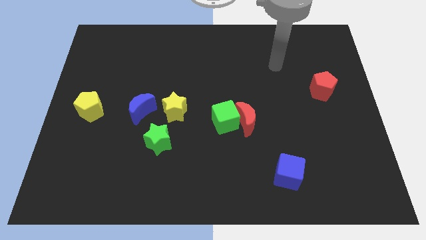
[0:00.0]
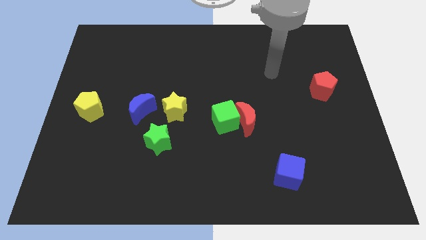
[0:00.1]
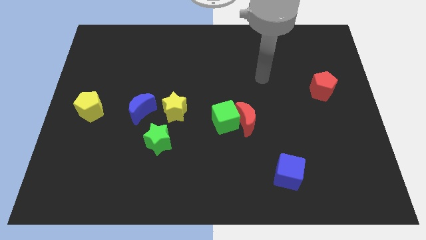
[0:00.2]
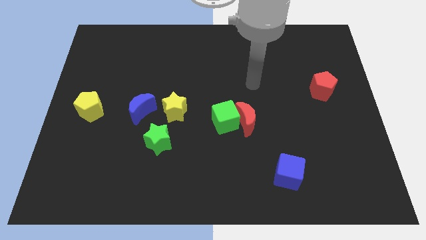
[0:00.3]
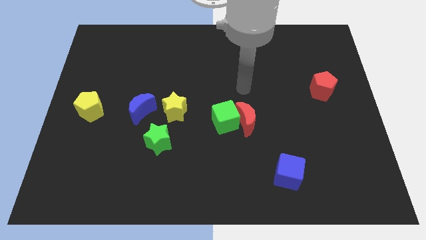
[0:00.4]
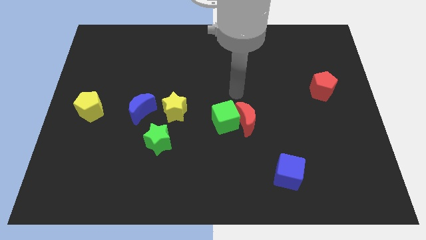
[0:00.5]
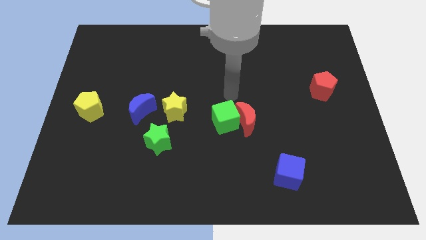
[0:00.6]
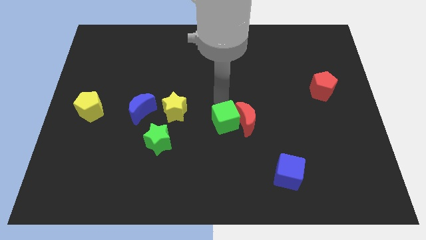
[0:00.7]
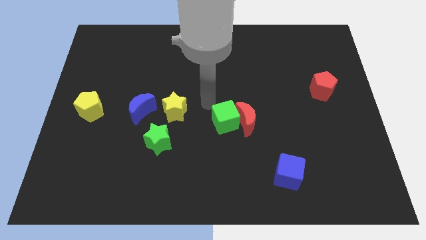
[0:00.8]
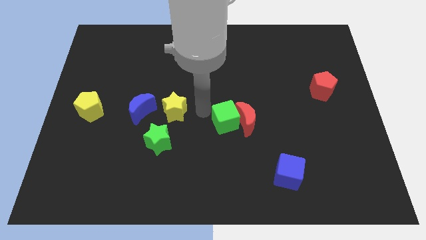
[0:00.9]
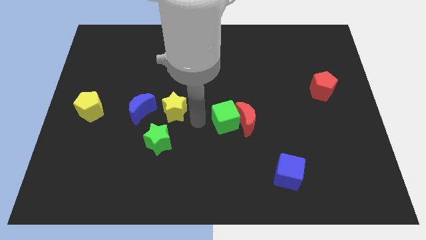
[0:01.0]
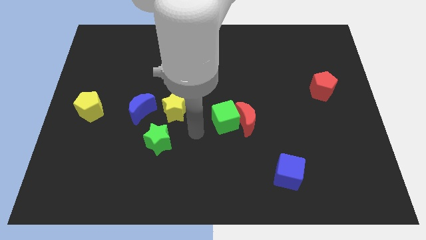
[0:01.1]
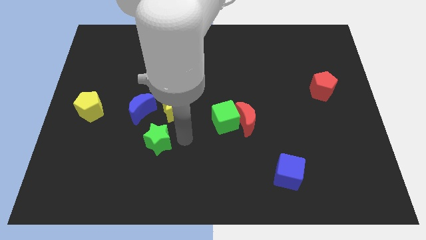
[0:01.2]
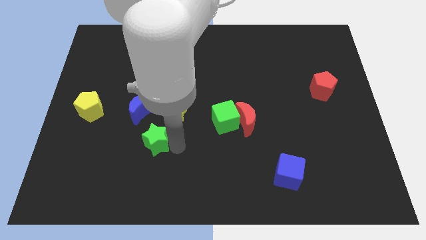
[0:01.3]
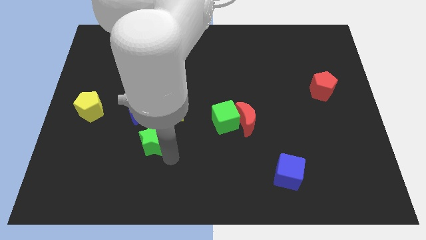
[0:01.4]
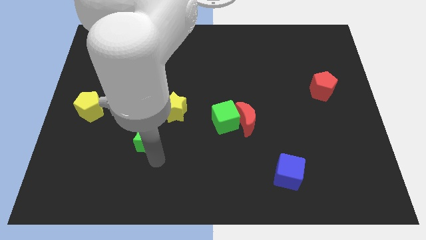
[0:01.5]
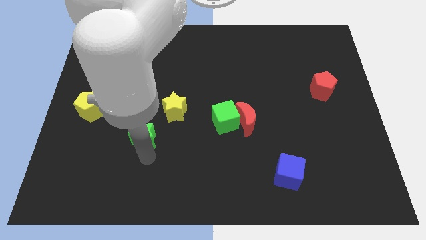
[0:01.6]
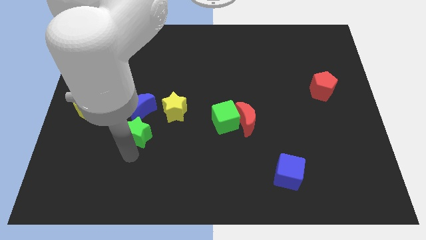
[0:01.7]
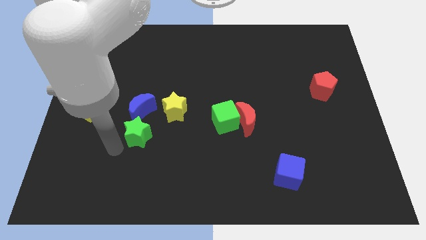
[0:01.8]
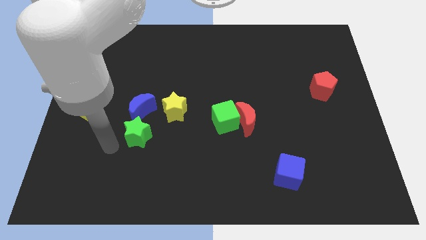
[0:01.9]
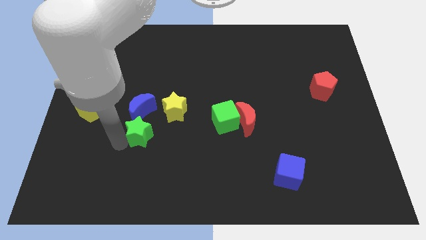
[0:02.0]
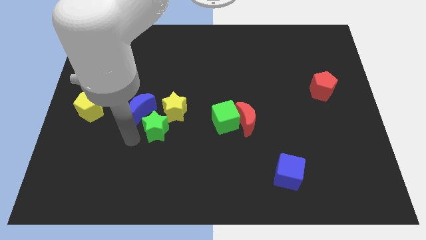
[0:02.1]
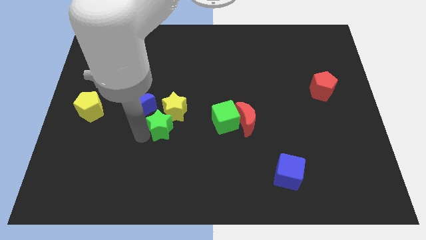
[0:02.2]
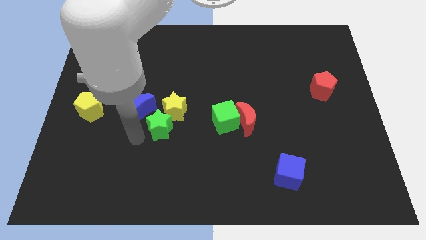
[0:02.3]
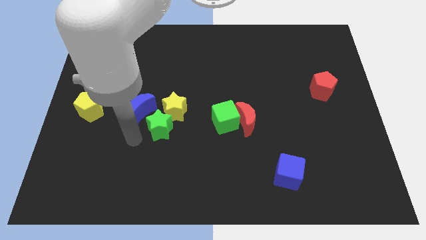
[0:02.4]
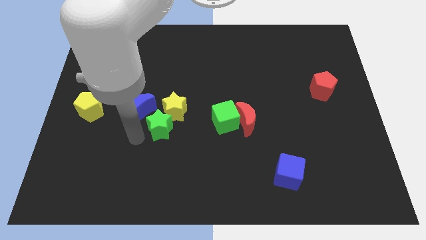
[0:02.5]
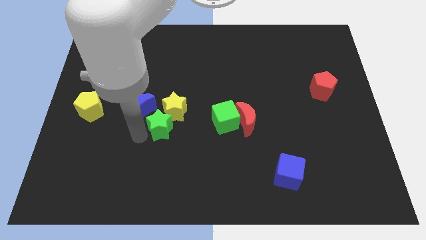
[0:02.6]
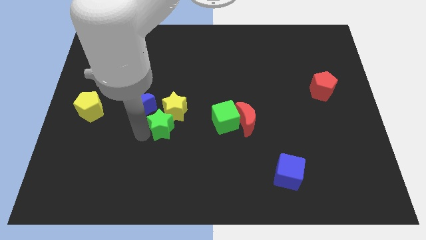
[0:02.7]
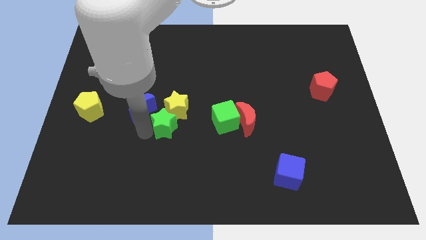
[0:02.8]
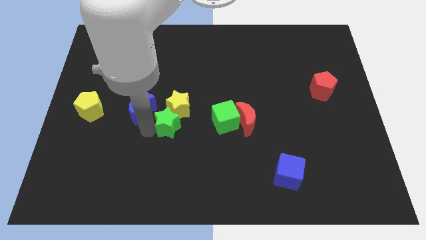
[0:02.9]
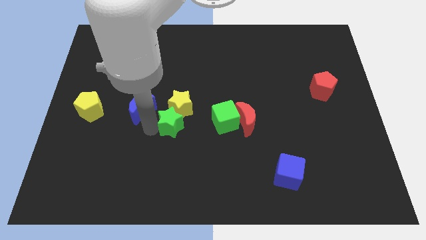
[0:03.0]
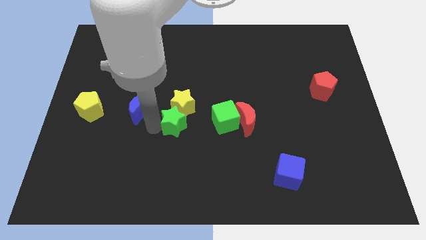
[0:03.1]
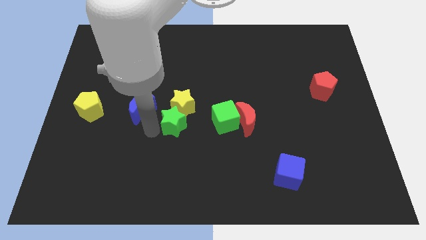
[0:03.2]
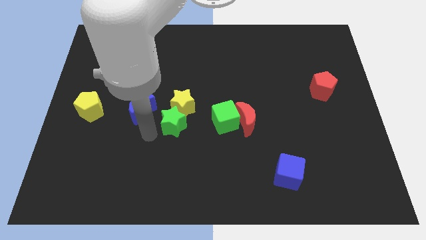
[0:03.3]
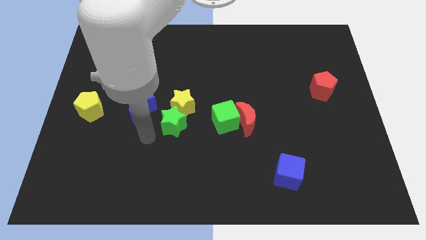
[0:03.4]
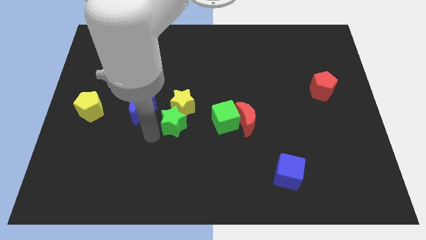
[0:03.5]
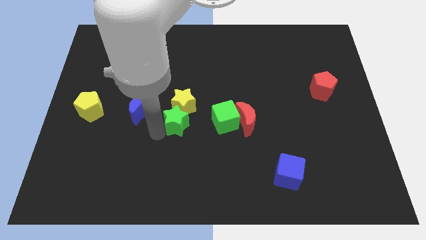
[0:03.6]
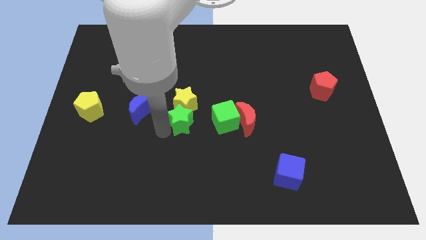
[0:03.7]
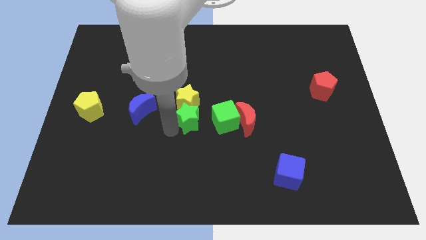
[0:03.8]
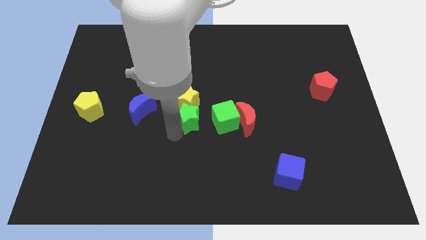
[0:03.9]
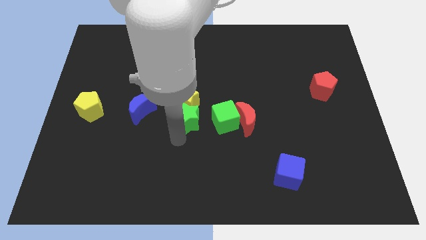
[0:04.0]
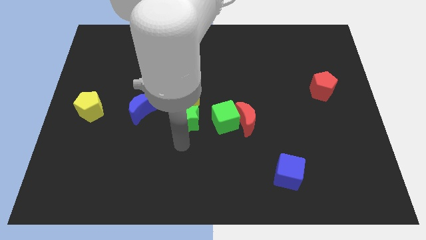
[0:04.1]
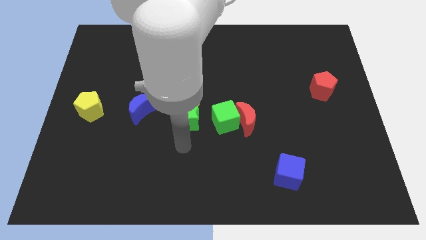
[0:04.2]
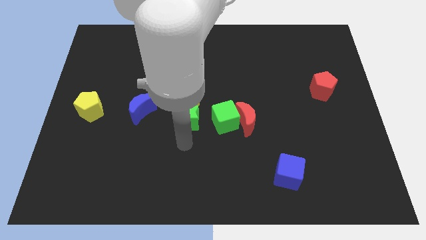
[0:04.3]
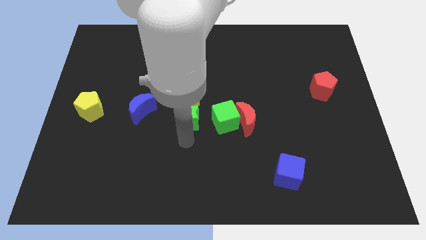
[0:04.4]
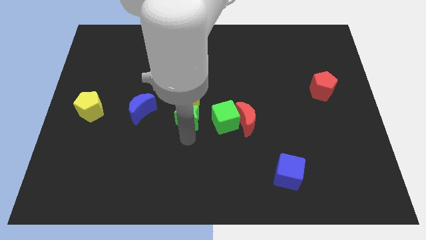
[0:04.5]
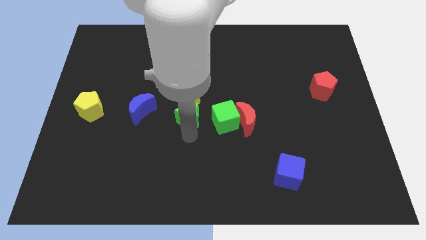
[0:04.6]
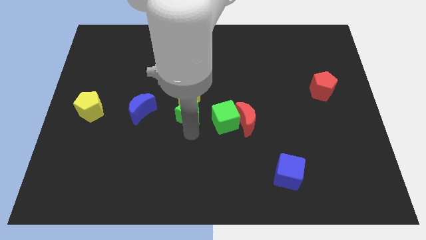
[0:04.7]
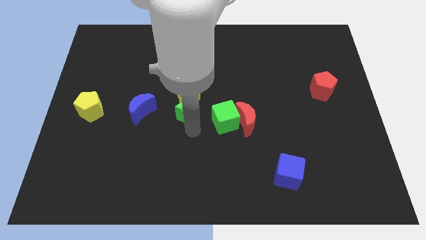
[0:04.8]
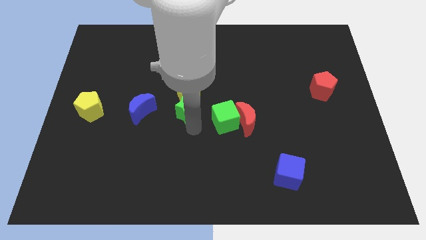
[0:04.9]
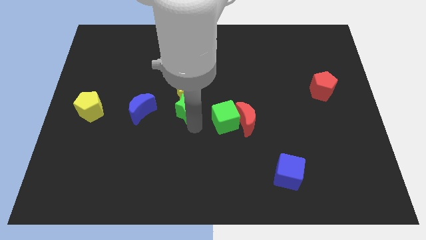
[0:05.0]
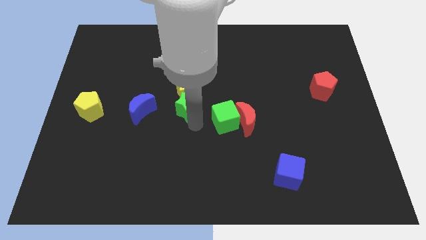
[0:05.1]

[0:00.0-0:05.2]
push the green star up a little

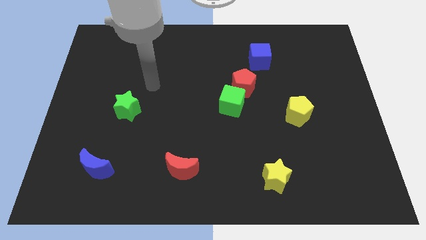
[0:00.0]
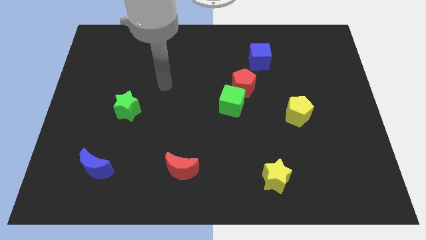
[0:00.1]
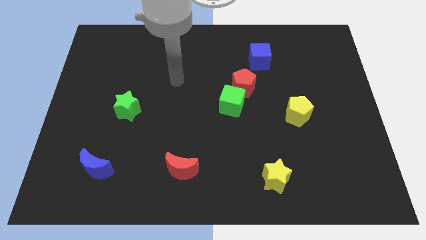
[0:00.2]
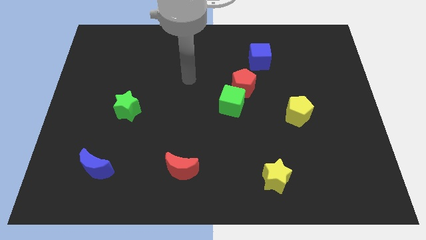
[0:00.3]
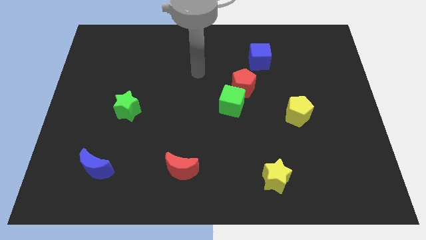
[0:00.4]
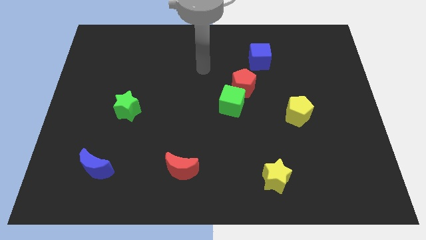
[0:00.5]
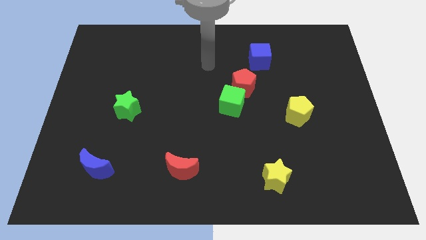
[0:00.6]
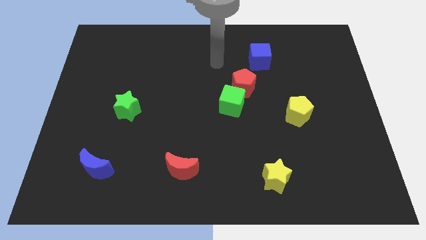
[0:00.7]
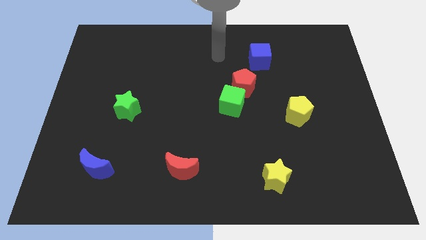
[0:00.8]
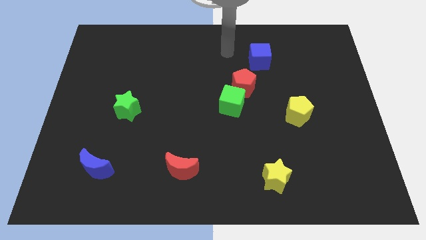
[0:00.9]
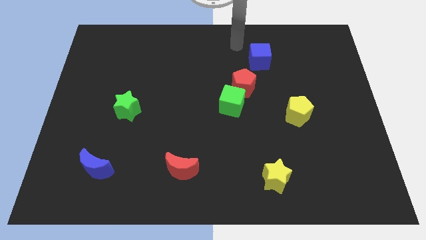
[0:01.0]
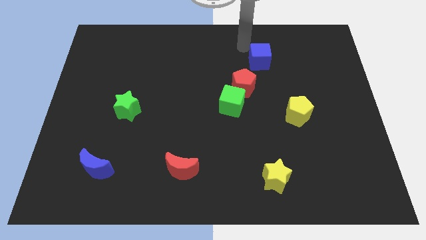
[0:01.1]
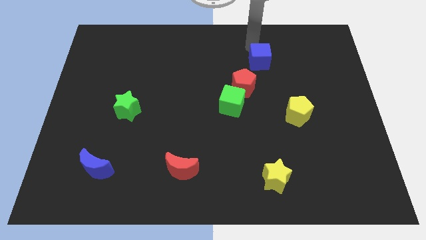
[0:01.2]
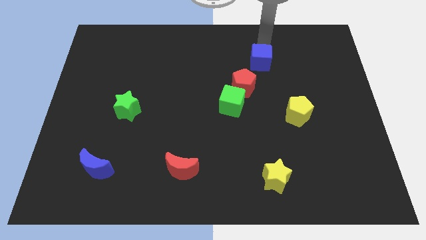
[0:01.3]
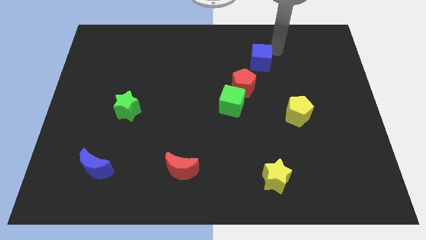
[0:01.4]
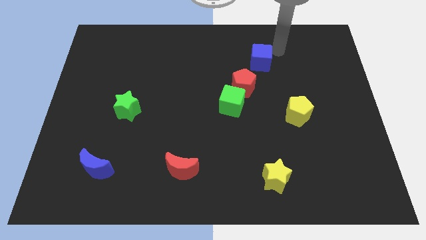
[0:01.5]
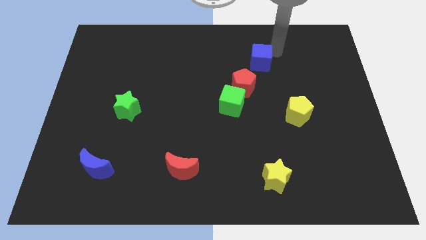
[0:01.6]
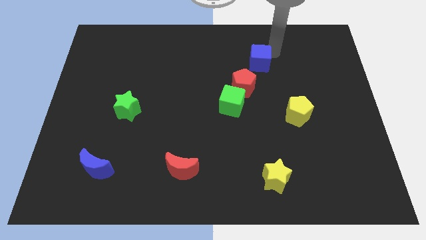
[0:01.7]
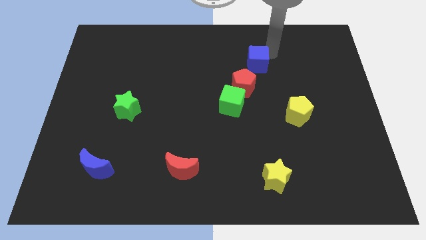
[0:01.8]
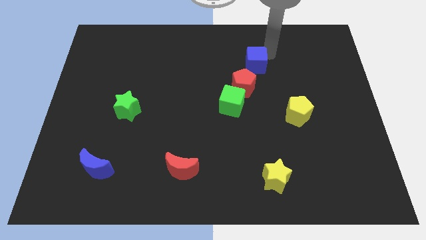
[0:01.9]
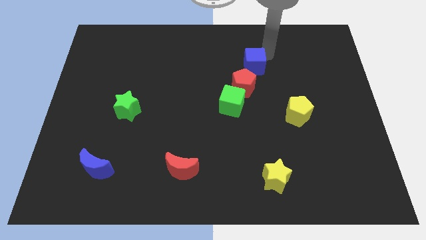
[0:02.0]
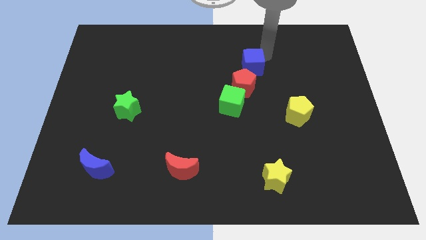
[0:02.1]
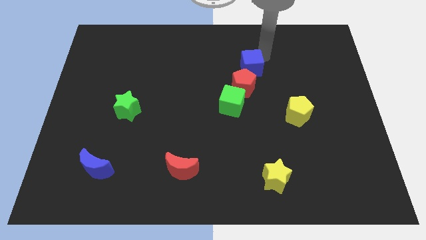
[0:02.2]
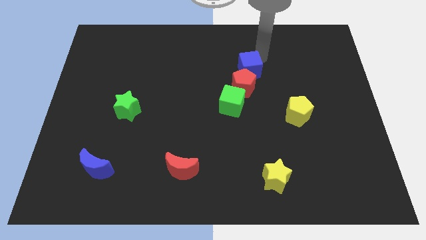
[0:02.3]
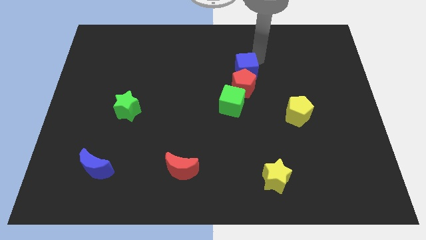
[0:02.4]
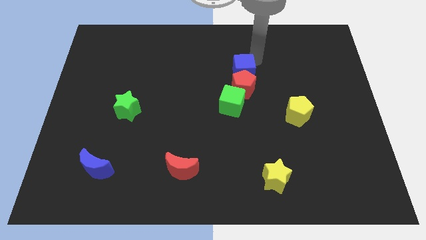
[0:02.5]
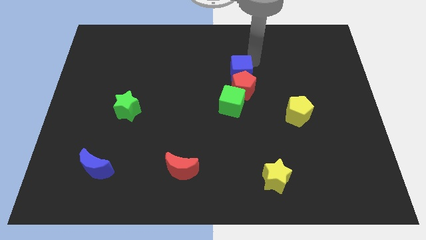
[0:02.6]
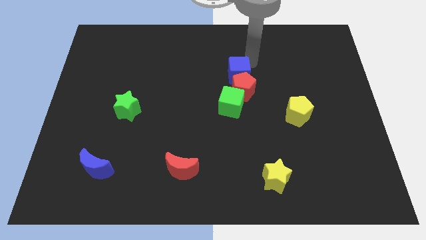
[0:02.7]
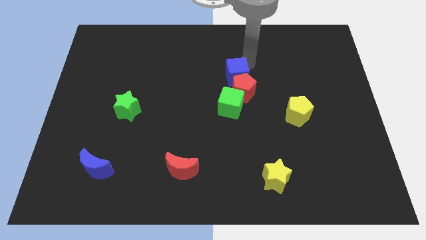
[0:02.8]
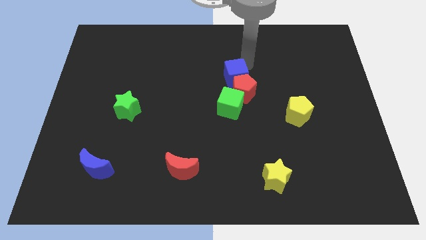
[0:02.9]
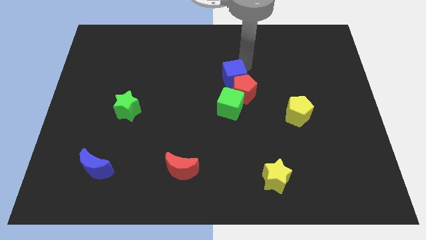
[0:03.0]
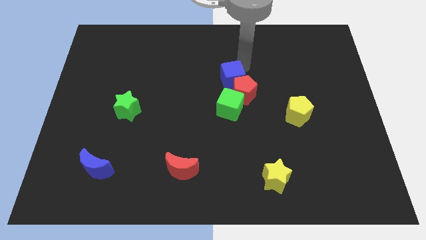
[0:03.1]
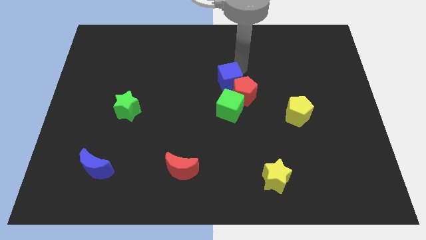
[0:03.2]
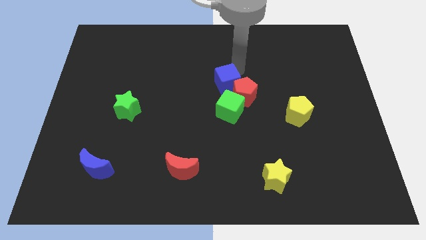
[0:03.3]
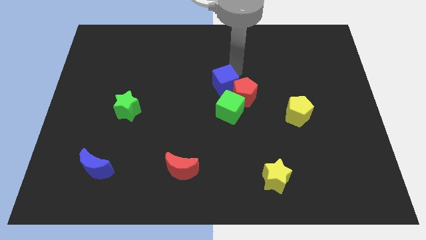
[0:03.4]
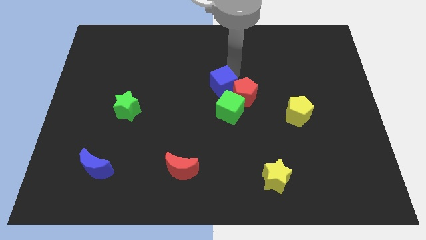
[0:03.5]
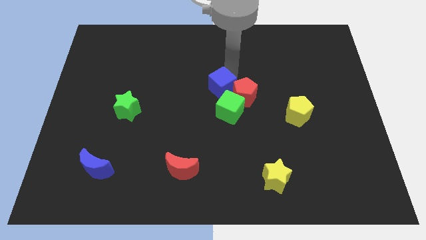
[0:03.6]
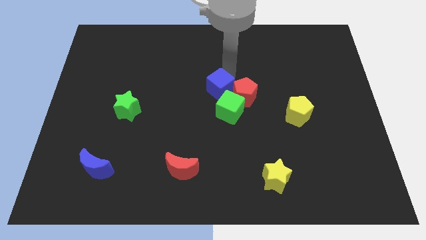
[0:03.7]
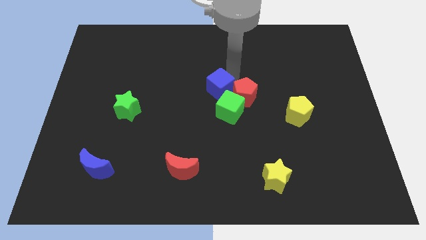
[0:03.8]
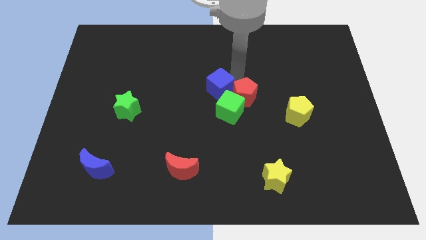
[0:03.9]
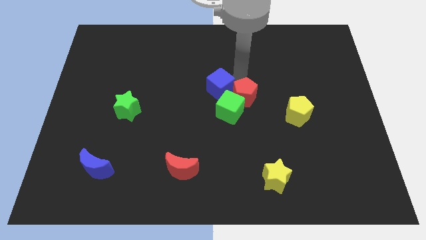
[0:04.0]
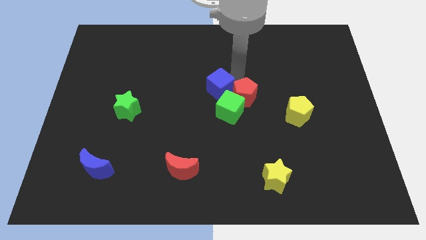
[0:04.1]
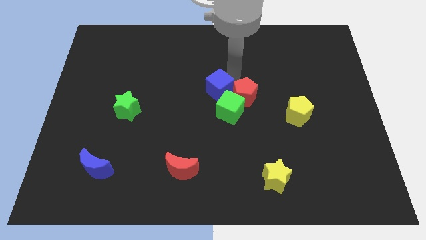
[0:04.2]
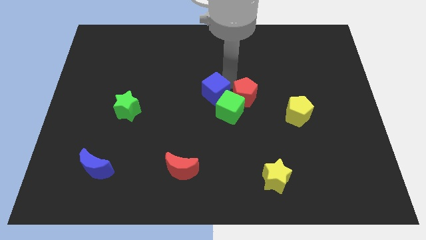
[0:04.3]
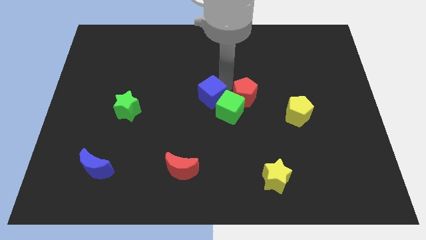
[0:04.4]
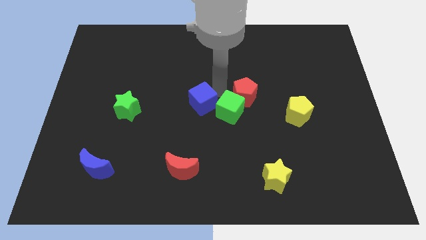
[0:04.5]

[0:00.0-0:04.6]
slide the blue cube downwards and to the left
